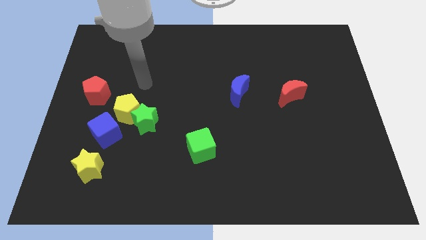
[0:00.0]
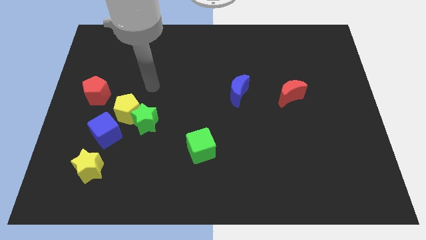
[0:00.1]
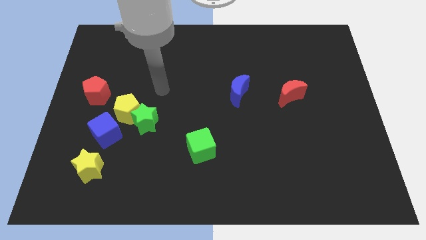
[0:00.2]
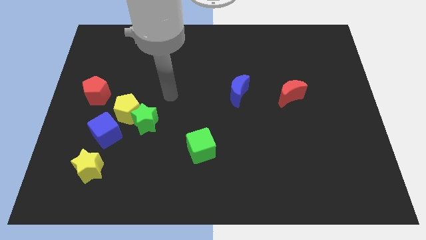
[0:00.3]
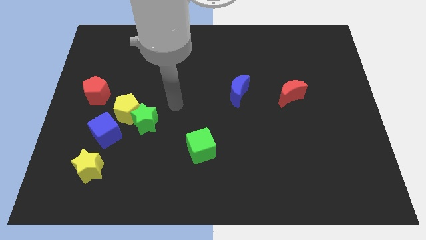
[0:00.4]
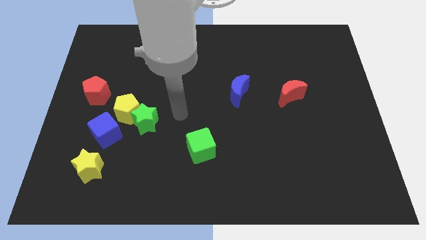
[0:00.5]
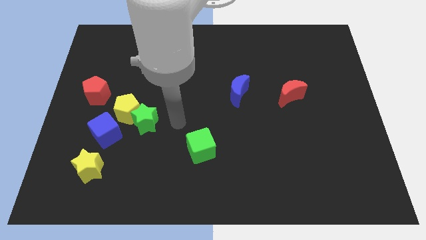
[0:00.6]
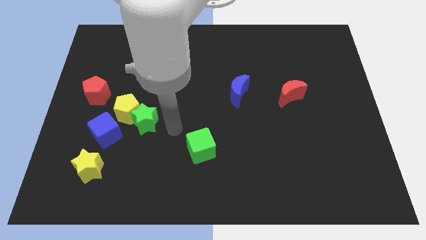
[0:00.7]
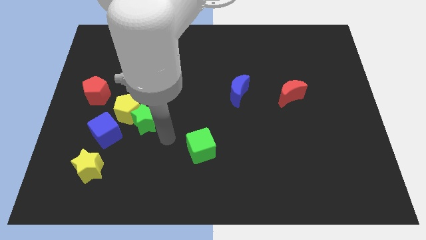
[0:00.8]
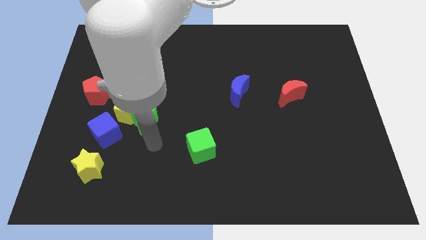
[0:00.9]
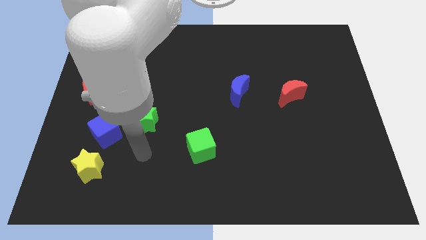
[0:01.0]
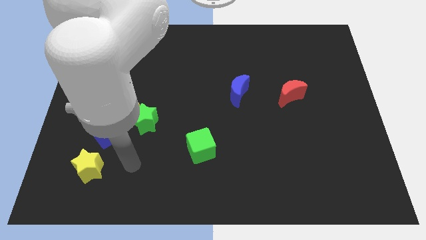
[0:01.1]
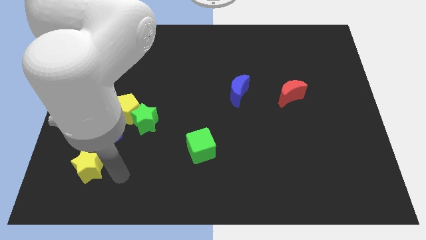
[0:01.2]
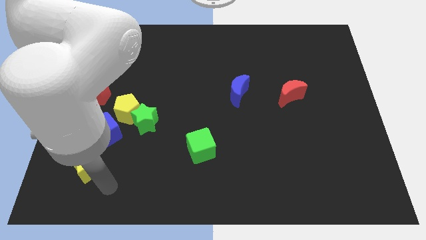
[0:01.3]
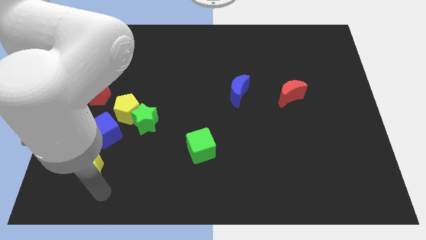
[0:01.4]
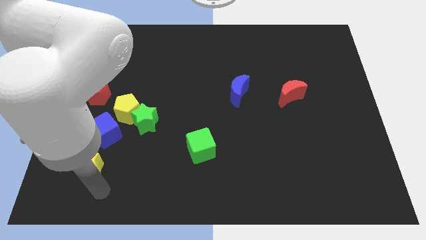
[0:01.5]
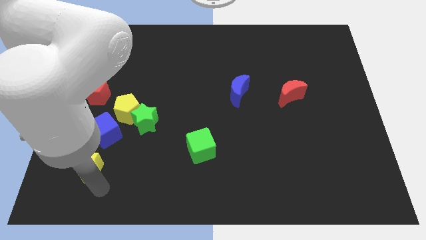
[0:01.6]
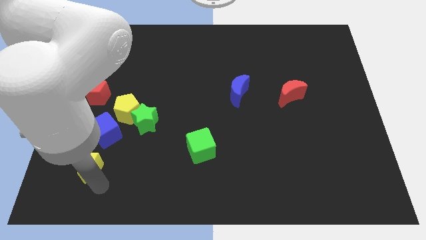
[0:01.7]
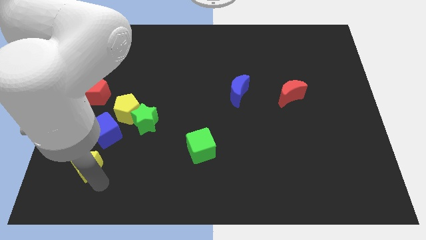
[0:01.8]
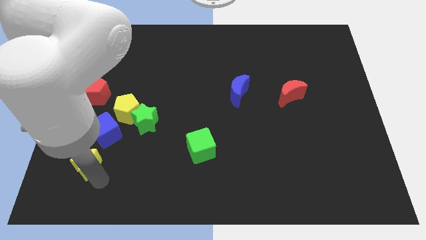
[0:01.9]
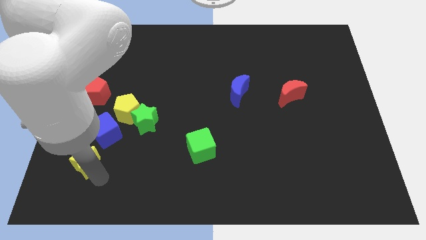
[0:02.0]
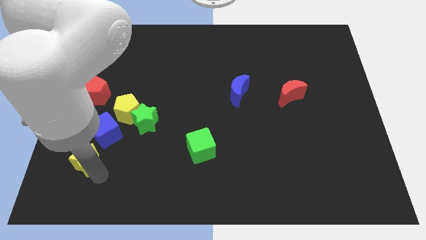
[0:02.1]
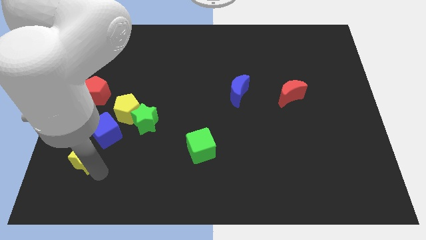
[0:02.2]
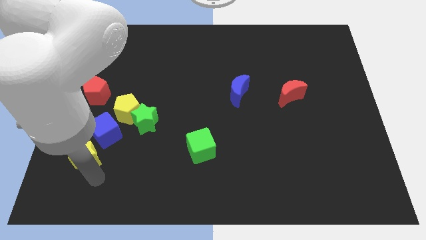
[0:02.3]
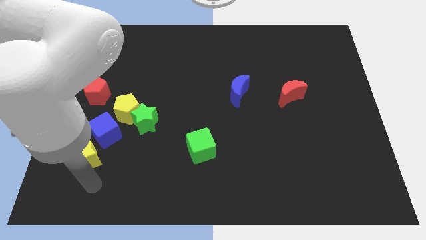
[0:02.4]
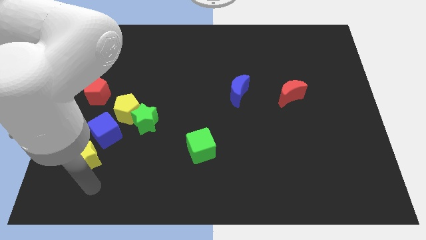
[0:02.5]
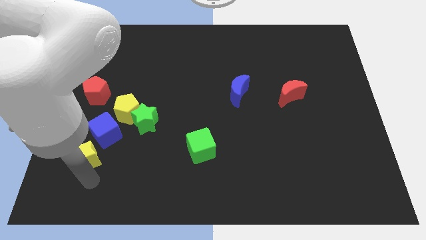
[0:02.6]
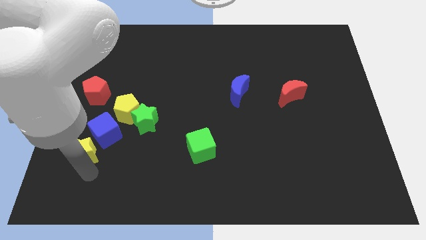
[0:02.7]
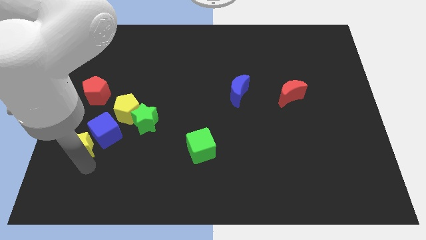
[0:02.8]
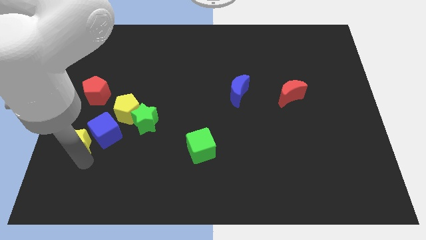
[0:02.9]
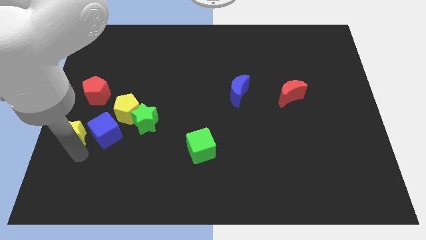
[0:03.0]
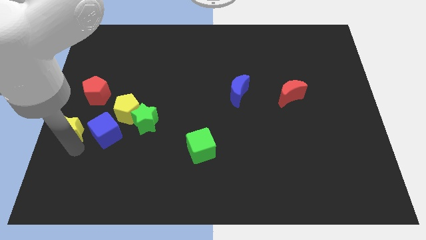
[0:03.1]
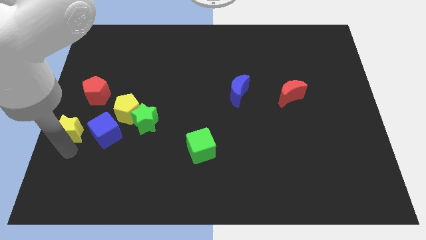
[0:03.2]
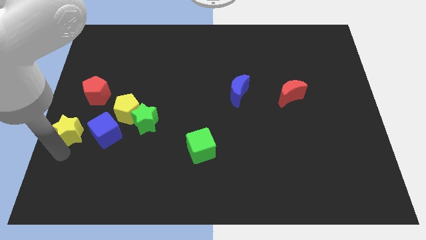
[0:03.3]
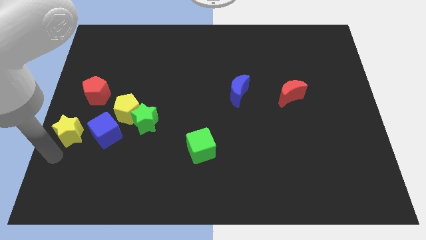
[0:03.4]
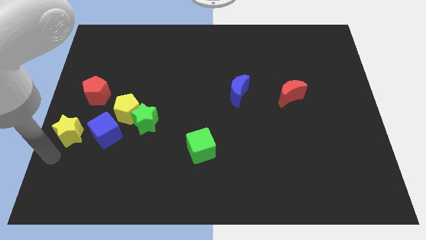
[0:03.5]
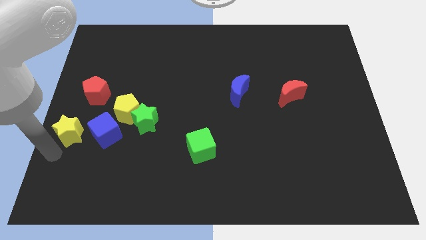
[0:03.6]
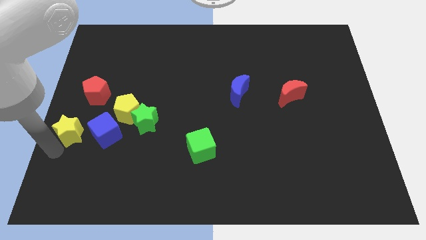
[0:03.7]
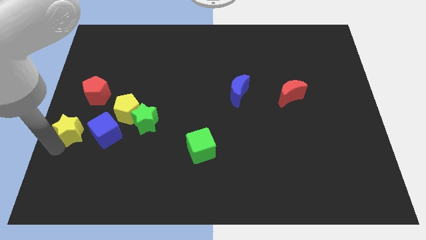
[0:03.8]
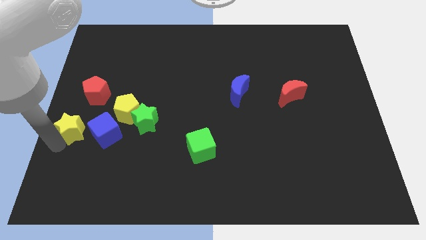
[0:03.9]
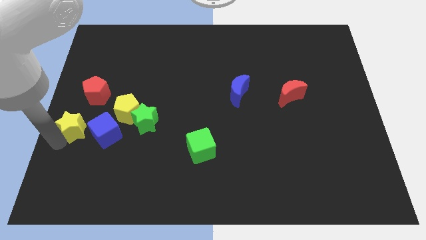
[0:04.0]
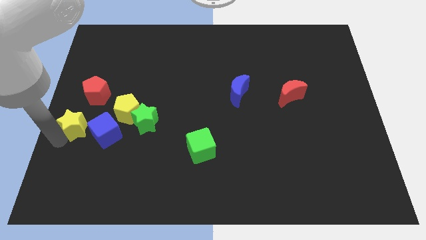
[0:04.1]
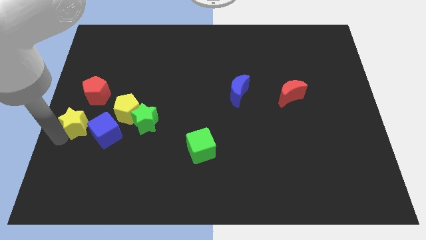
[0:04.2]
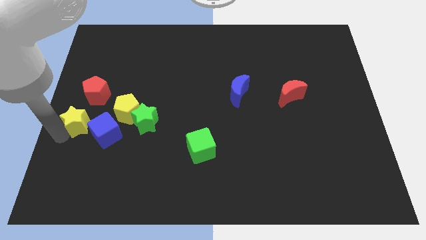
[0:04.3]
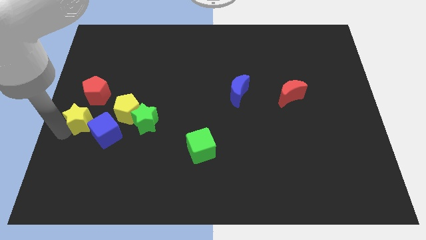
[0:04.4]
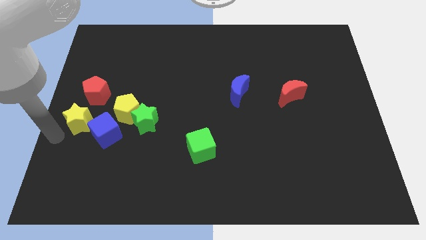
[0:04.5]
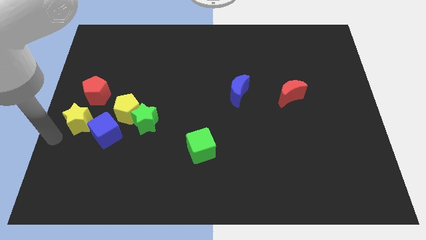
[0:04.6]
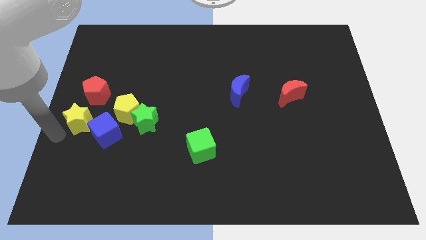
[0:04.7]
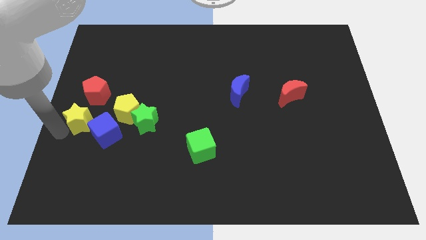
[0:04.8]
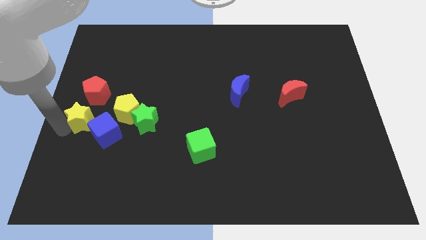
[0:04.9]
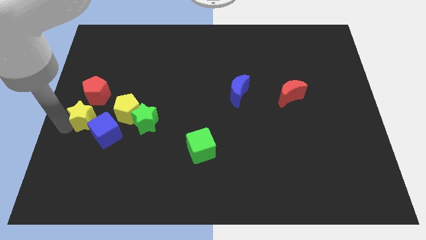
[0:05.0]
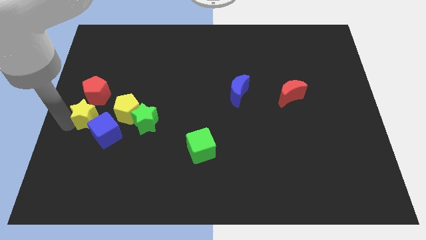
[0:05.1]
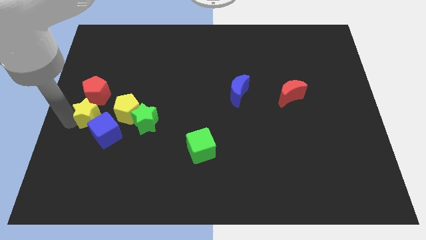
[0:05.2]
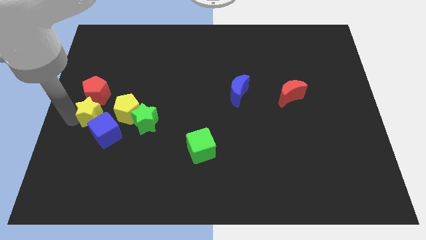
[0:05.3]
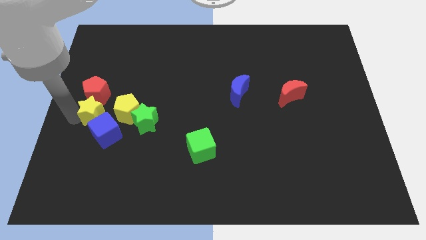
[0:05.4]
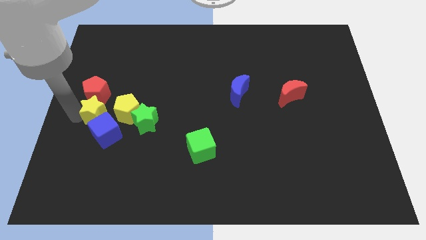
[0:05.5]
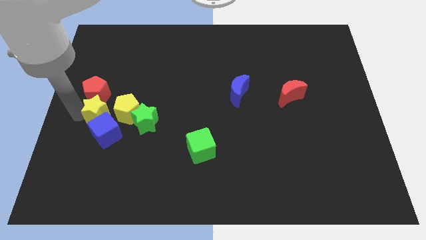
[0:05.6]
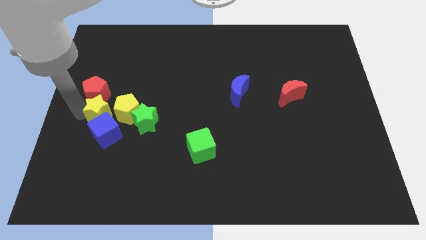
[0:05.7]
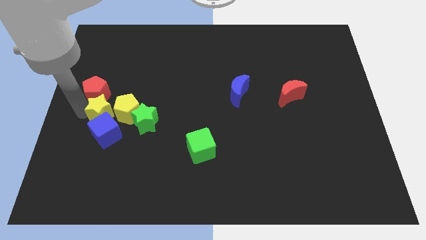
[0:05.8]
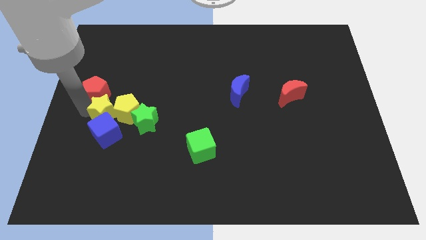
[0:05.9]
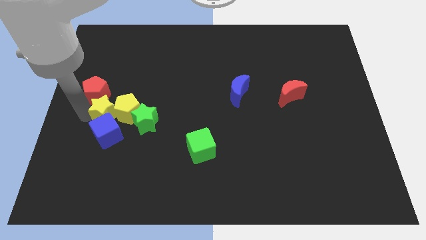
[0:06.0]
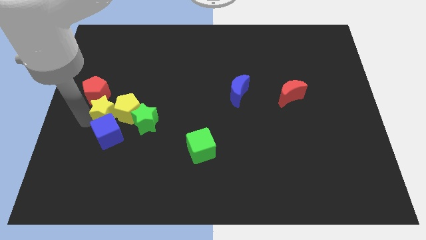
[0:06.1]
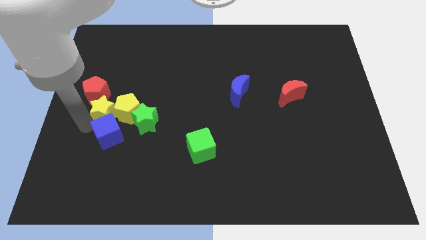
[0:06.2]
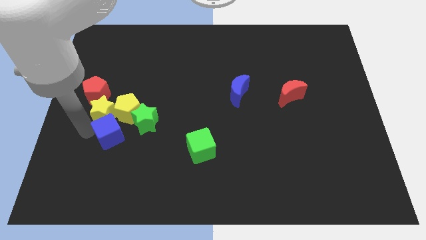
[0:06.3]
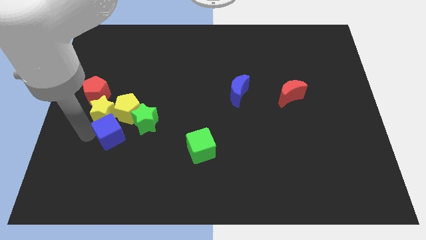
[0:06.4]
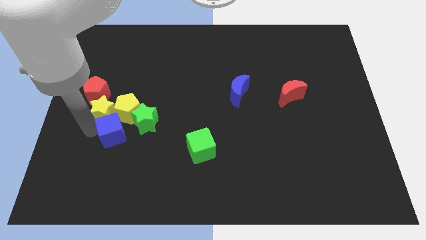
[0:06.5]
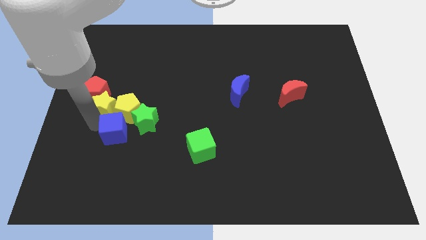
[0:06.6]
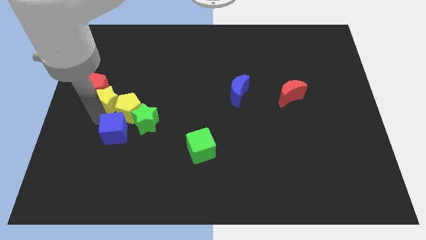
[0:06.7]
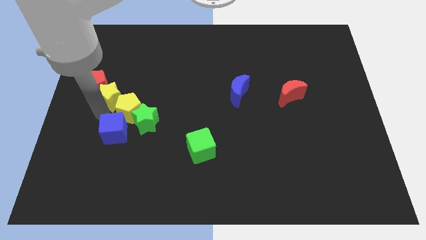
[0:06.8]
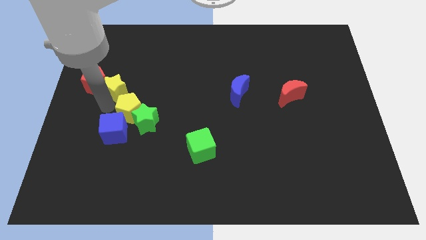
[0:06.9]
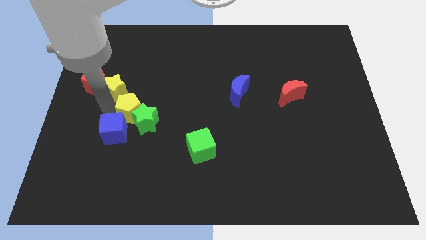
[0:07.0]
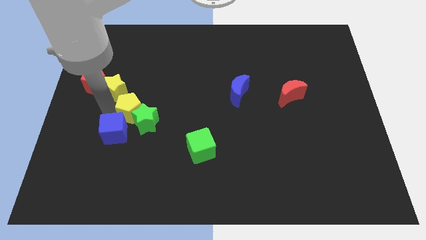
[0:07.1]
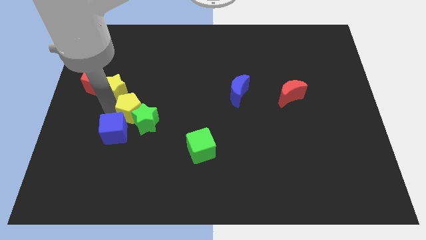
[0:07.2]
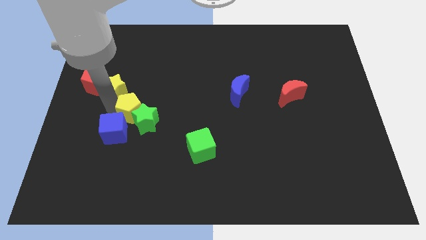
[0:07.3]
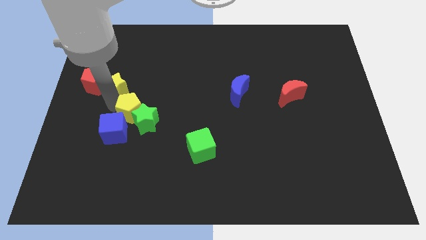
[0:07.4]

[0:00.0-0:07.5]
put the yellow star to the top right of the red pentagon
